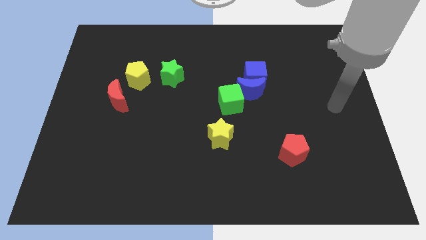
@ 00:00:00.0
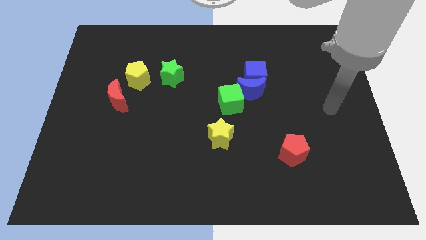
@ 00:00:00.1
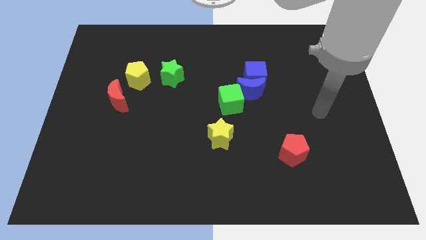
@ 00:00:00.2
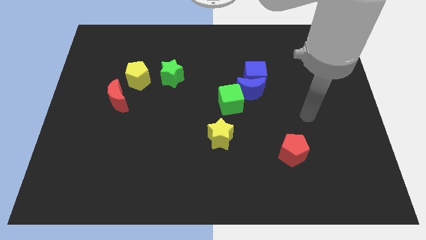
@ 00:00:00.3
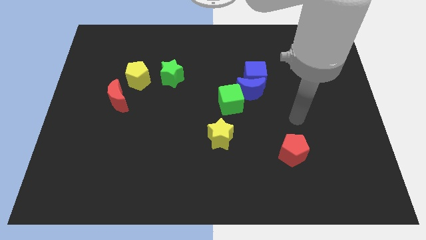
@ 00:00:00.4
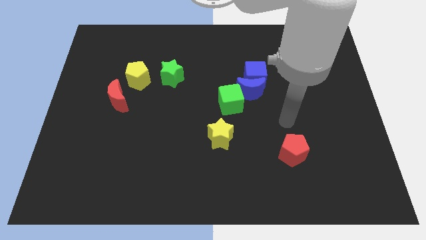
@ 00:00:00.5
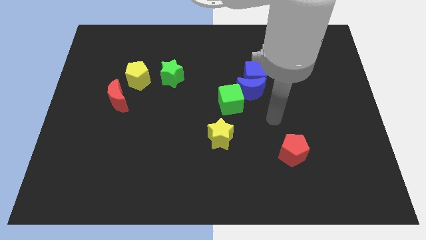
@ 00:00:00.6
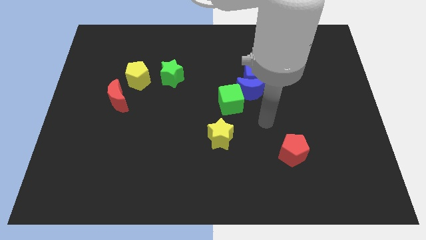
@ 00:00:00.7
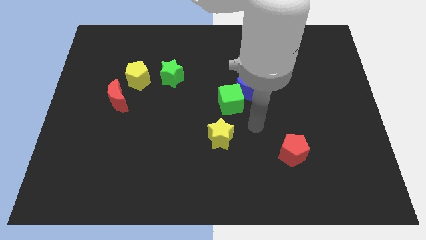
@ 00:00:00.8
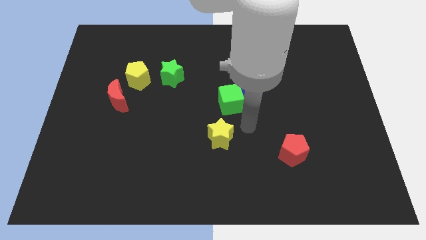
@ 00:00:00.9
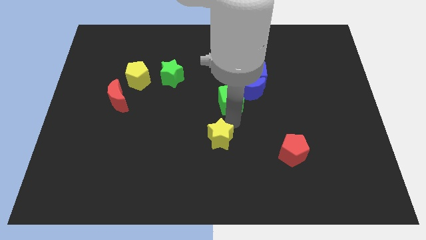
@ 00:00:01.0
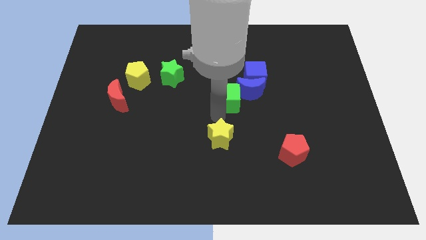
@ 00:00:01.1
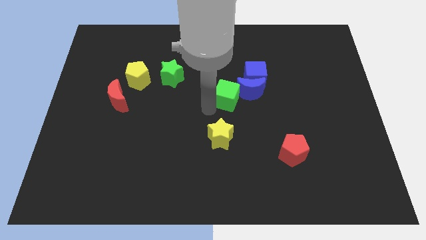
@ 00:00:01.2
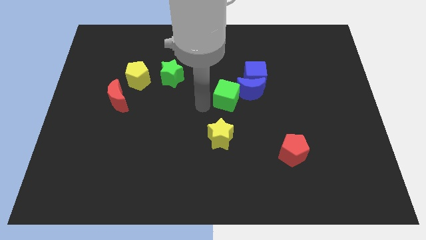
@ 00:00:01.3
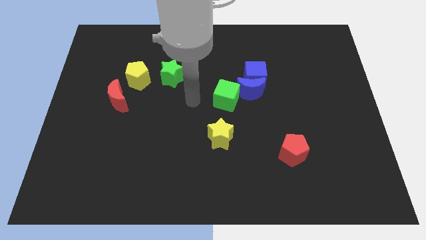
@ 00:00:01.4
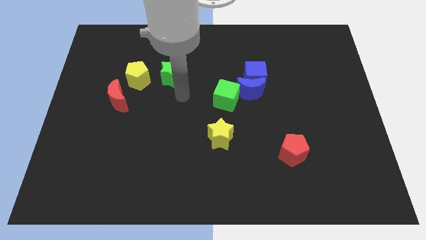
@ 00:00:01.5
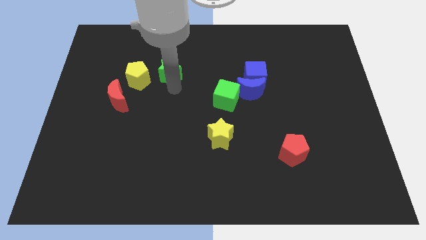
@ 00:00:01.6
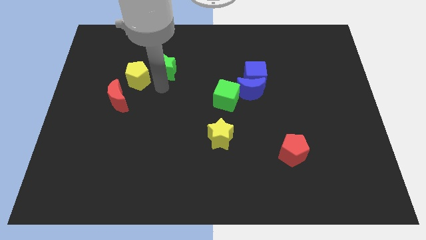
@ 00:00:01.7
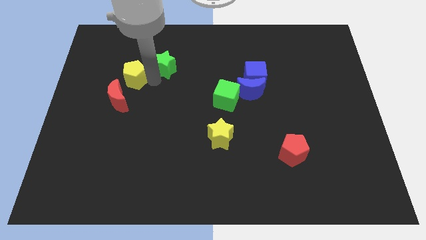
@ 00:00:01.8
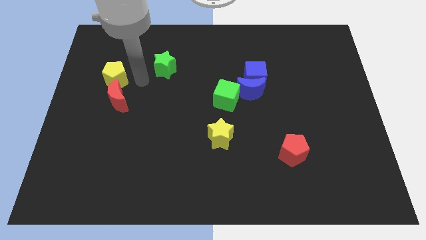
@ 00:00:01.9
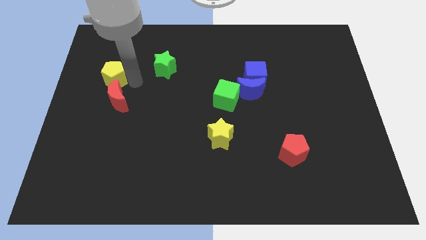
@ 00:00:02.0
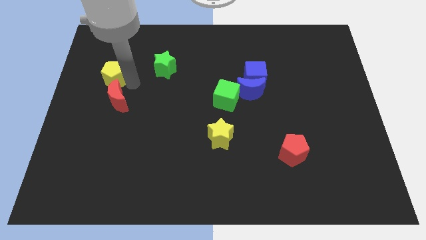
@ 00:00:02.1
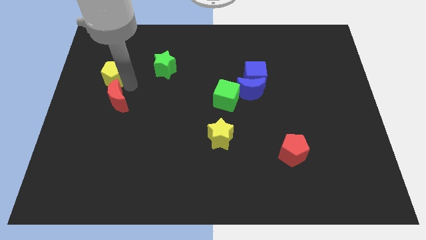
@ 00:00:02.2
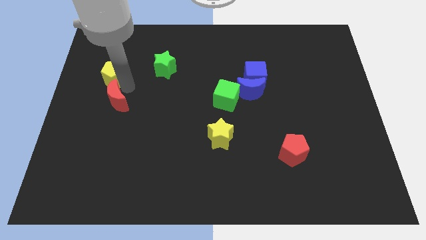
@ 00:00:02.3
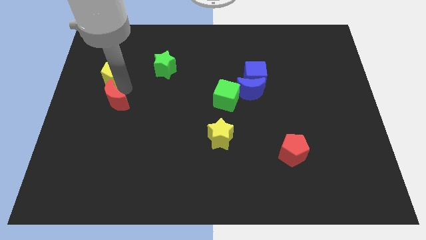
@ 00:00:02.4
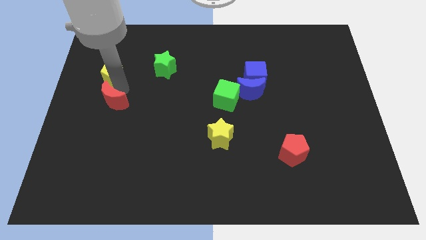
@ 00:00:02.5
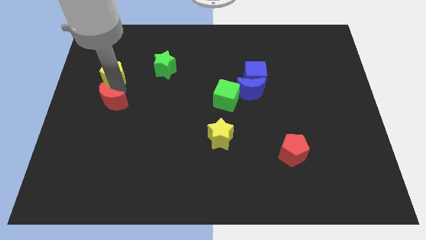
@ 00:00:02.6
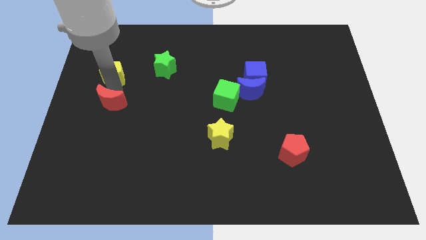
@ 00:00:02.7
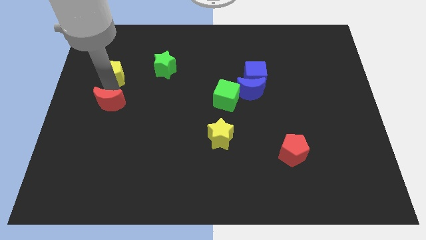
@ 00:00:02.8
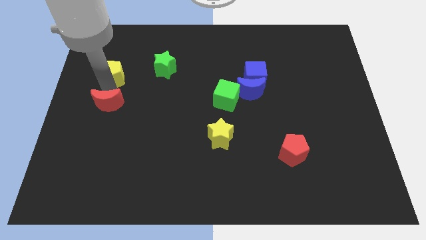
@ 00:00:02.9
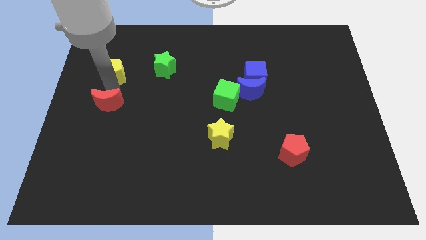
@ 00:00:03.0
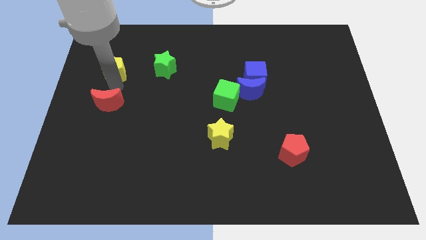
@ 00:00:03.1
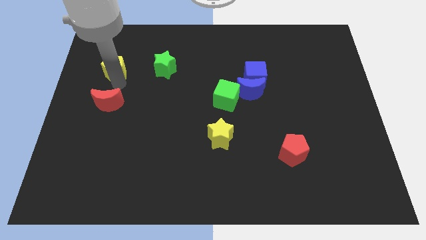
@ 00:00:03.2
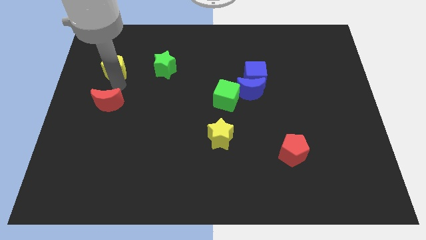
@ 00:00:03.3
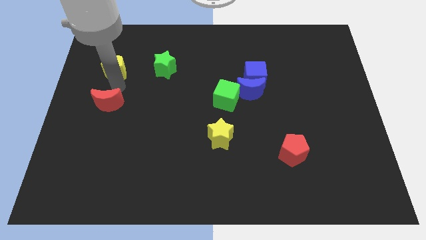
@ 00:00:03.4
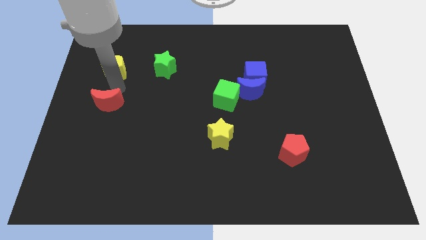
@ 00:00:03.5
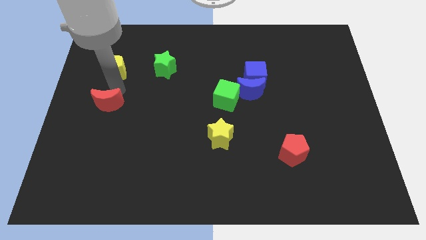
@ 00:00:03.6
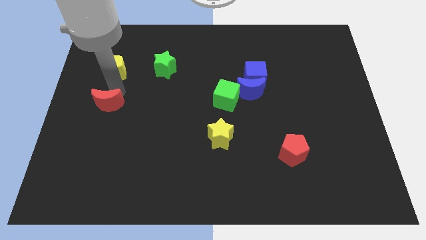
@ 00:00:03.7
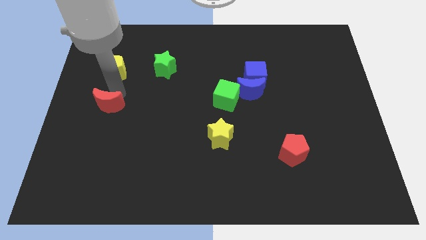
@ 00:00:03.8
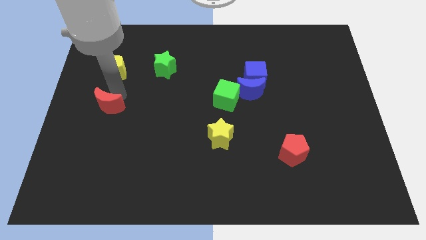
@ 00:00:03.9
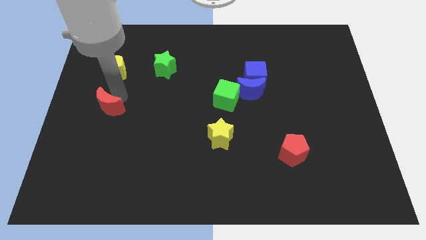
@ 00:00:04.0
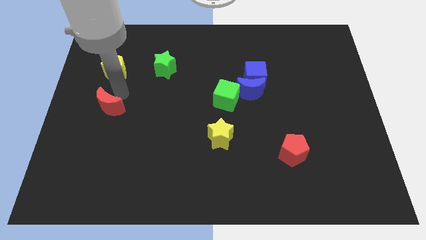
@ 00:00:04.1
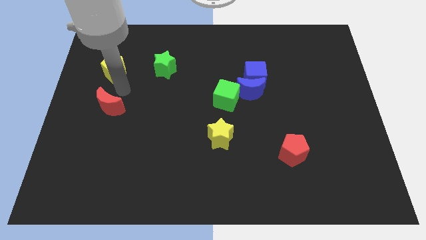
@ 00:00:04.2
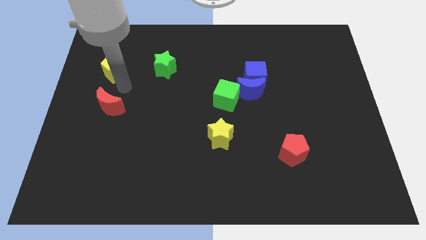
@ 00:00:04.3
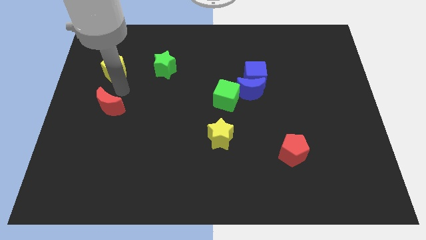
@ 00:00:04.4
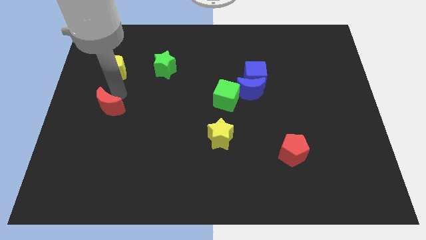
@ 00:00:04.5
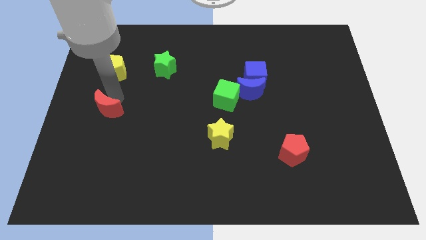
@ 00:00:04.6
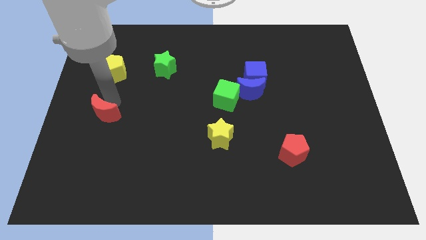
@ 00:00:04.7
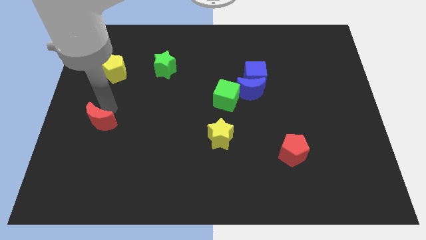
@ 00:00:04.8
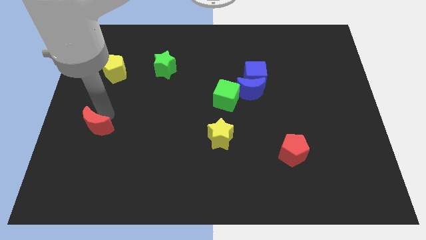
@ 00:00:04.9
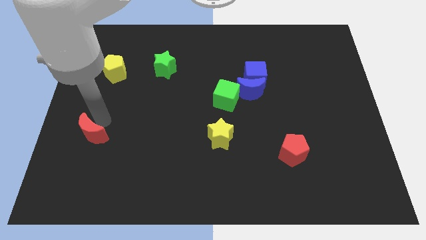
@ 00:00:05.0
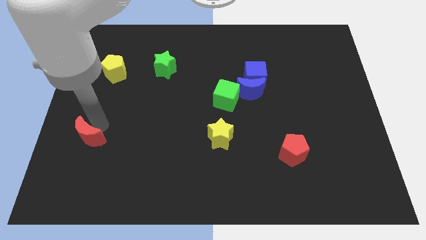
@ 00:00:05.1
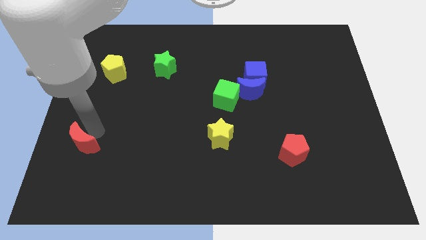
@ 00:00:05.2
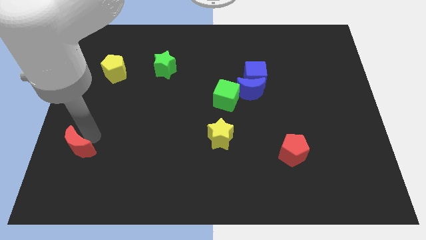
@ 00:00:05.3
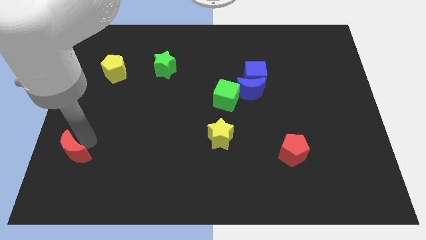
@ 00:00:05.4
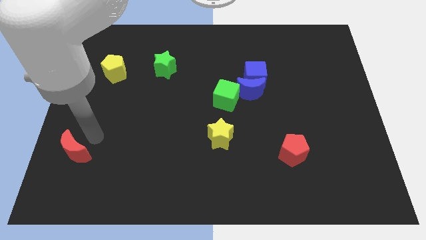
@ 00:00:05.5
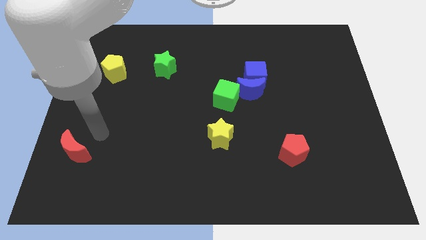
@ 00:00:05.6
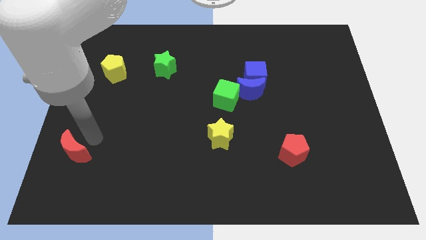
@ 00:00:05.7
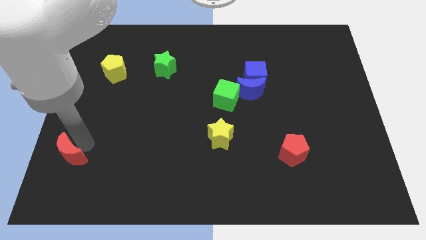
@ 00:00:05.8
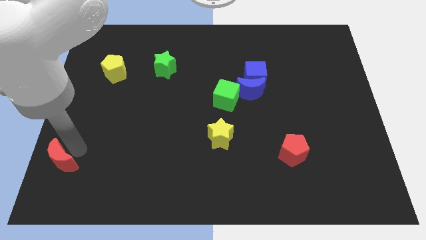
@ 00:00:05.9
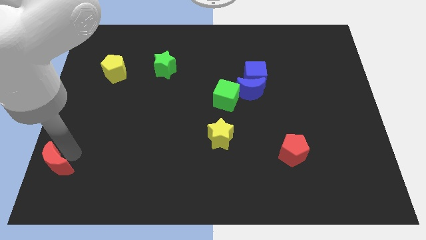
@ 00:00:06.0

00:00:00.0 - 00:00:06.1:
push the red moon to the bottom left corner
